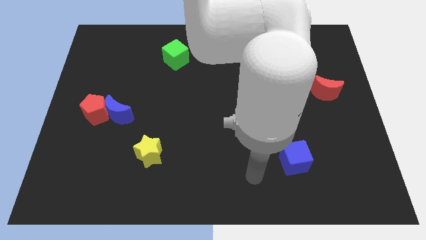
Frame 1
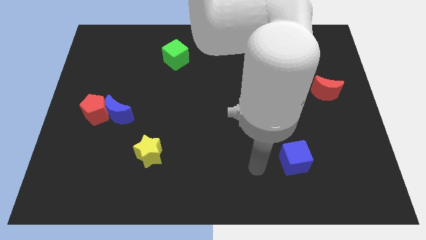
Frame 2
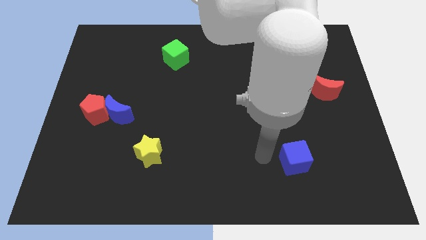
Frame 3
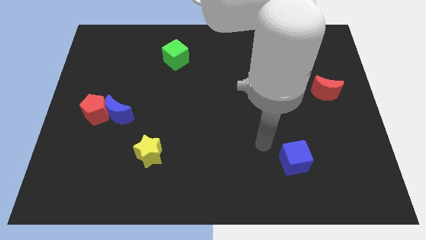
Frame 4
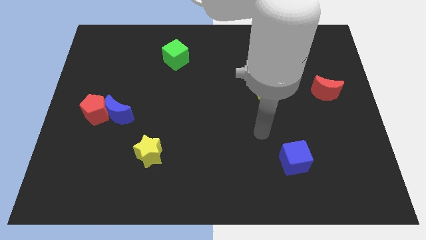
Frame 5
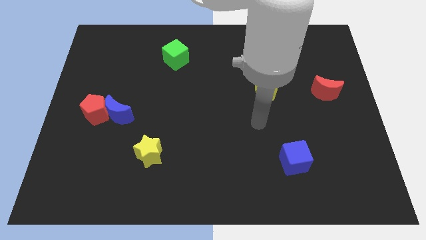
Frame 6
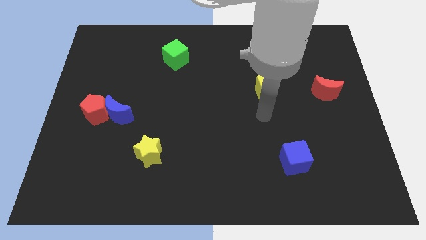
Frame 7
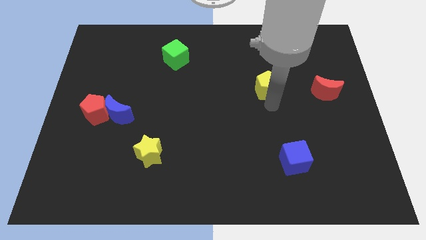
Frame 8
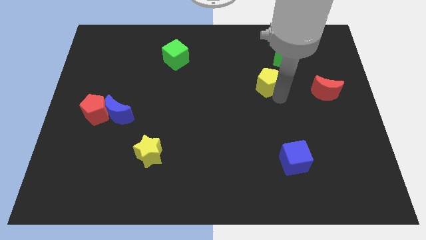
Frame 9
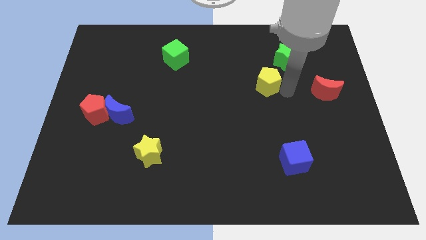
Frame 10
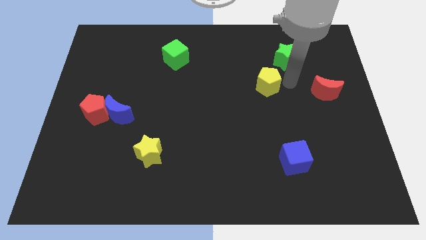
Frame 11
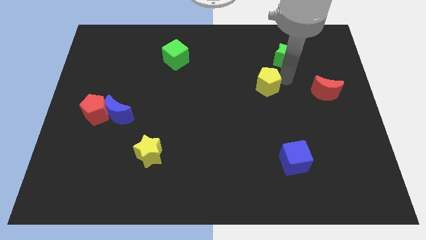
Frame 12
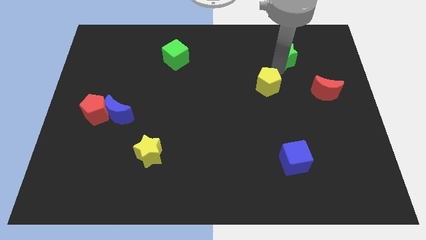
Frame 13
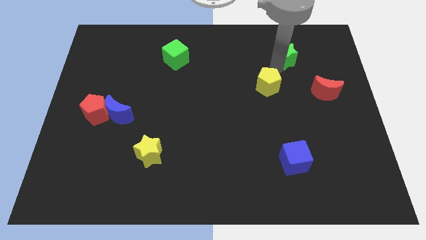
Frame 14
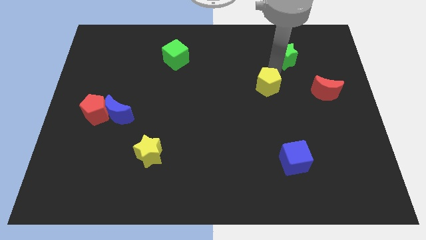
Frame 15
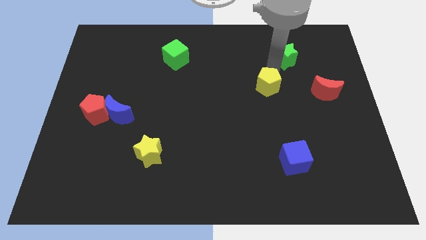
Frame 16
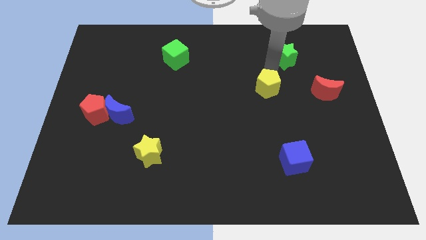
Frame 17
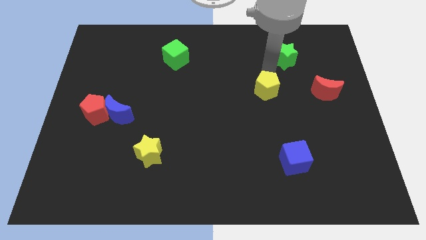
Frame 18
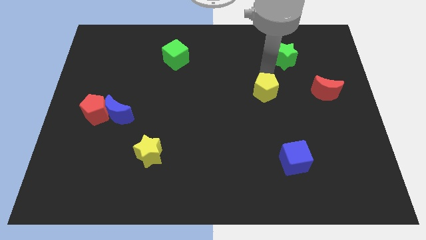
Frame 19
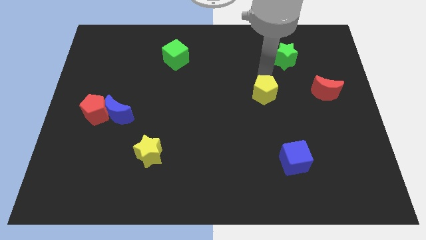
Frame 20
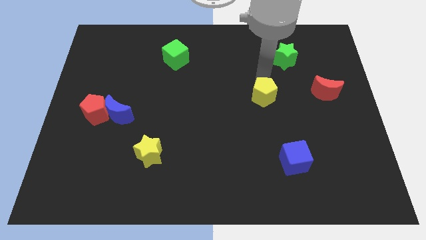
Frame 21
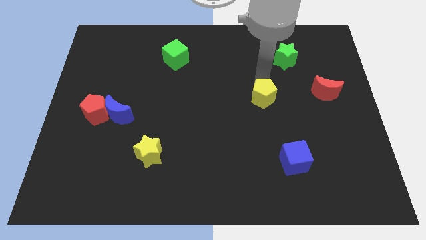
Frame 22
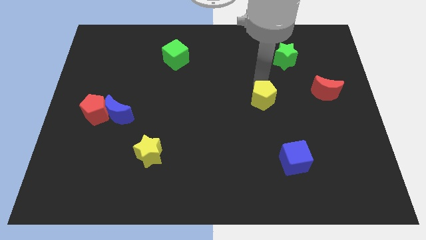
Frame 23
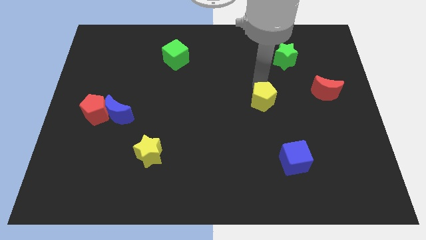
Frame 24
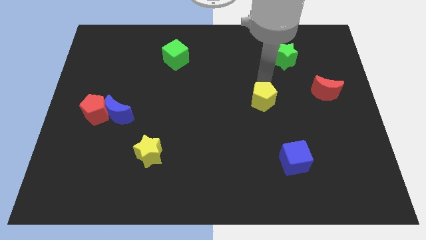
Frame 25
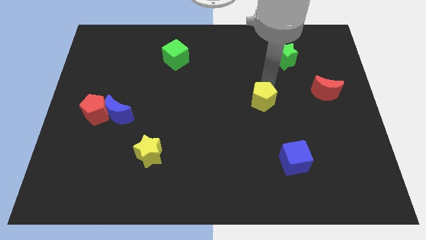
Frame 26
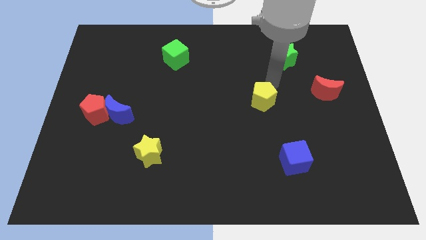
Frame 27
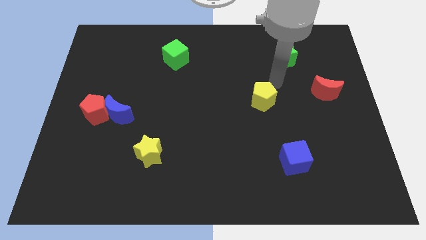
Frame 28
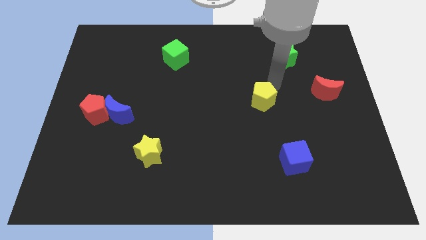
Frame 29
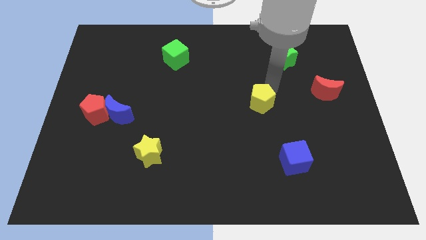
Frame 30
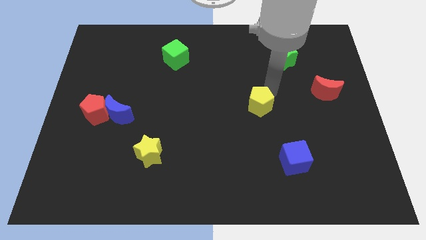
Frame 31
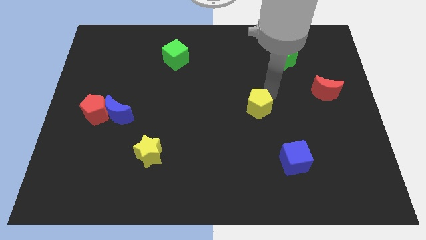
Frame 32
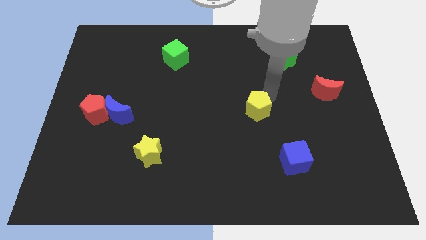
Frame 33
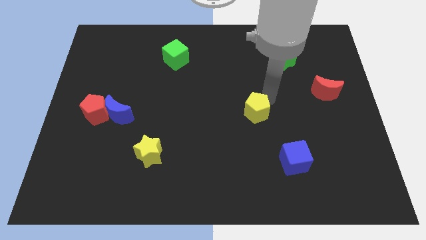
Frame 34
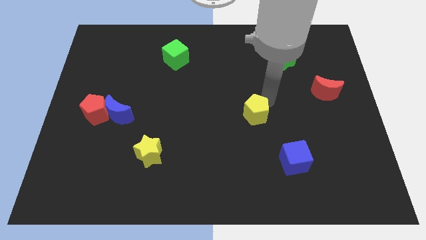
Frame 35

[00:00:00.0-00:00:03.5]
slightly slide the yellow pentagon downwards and then left

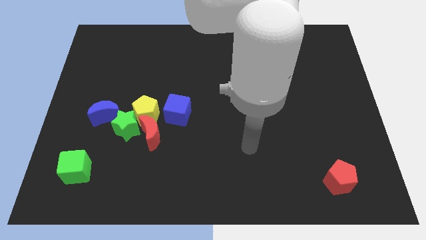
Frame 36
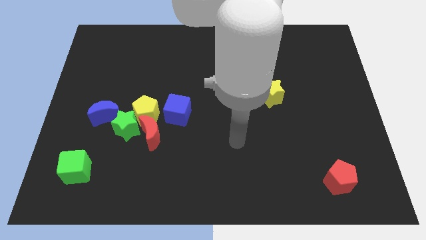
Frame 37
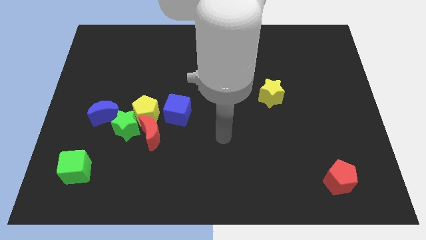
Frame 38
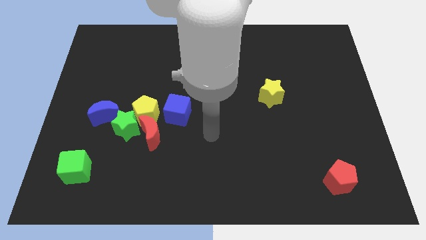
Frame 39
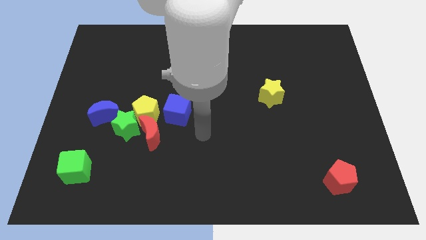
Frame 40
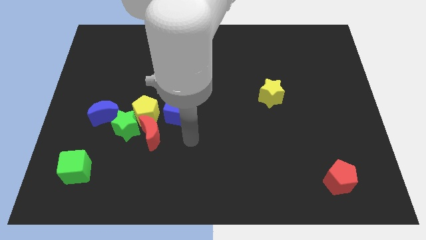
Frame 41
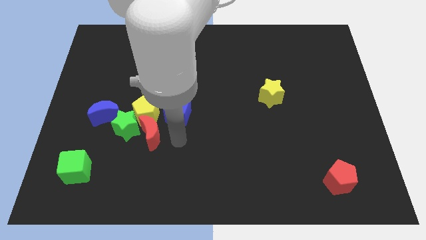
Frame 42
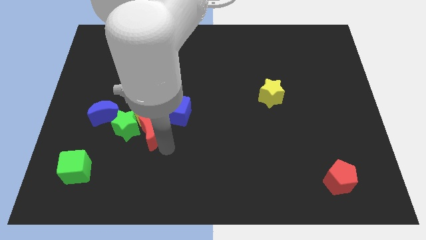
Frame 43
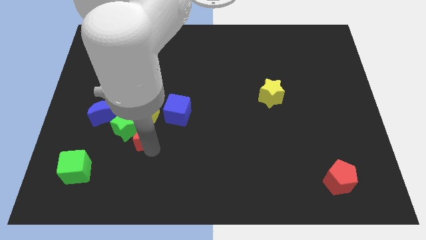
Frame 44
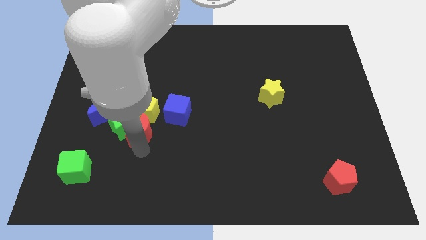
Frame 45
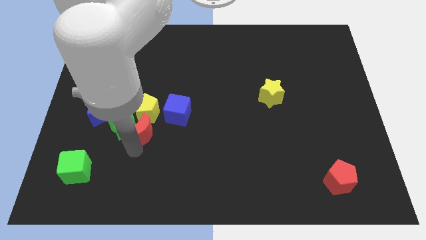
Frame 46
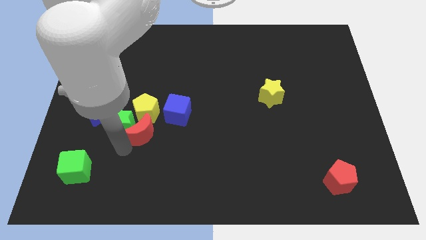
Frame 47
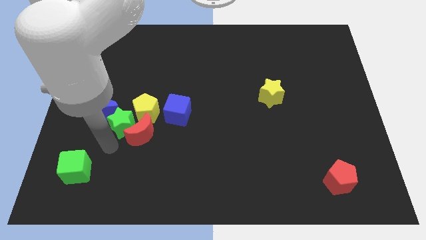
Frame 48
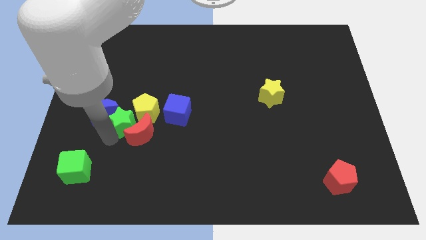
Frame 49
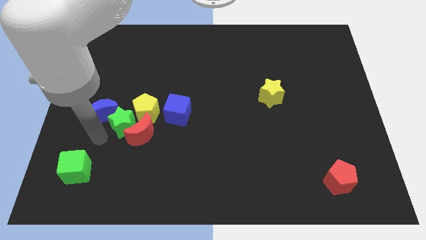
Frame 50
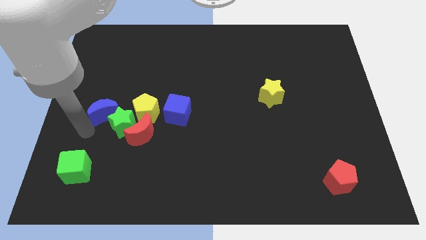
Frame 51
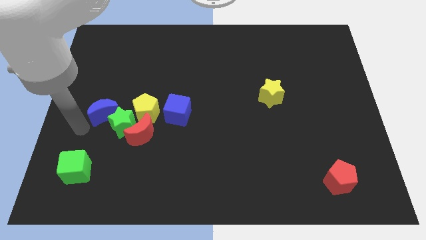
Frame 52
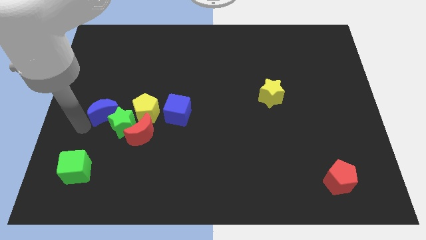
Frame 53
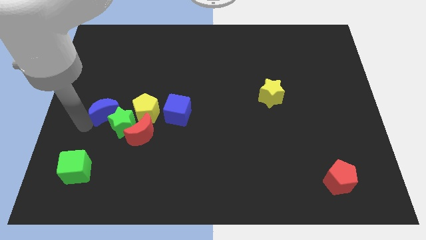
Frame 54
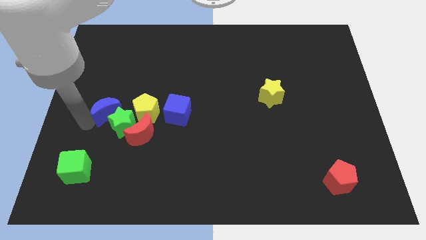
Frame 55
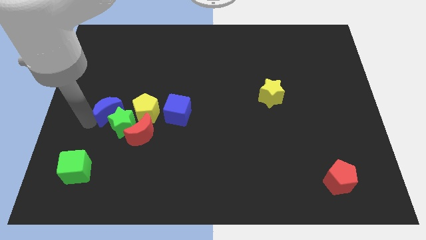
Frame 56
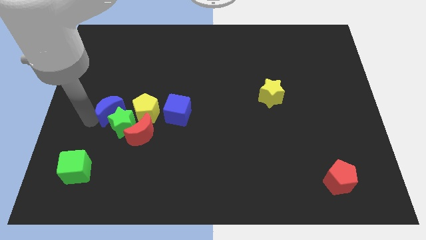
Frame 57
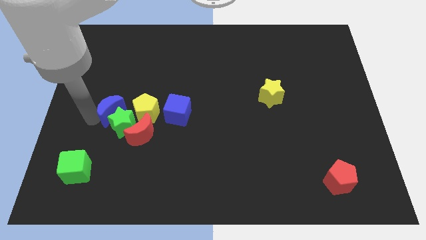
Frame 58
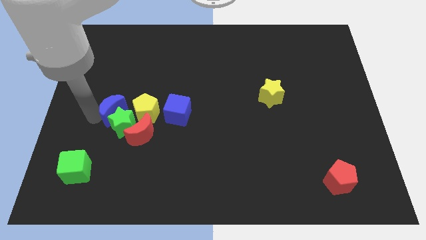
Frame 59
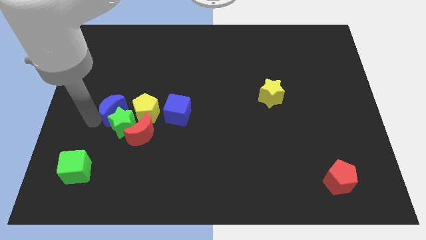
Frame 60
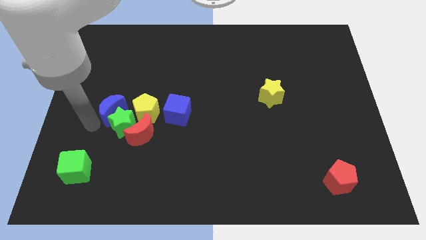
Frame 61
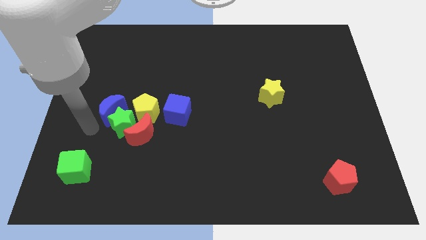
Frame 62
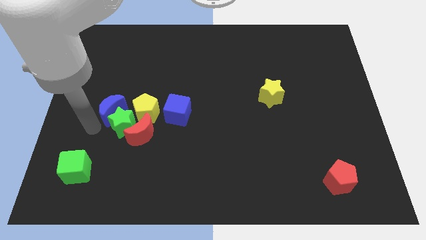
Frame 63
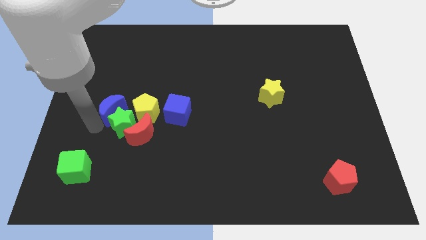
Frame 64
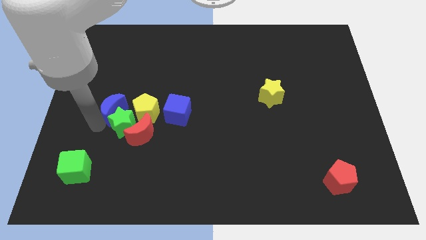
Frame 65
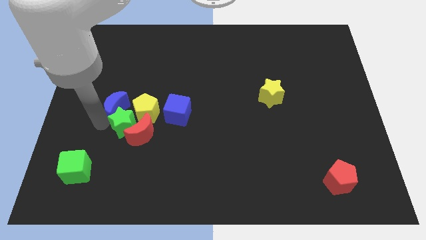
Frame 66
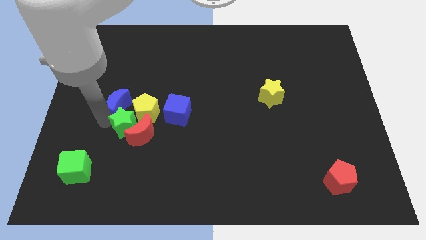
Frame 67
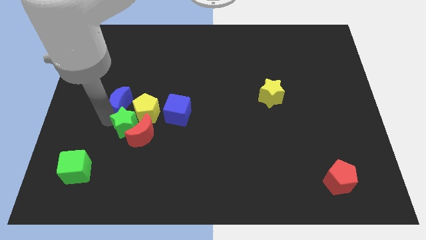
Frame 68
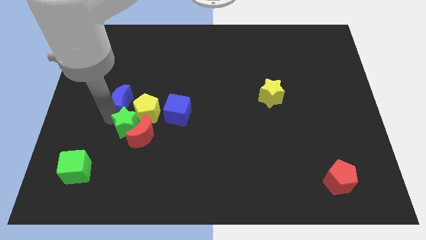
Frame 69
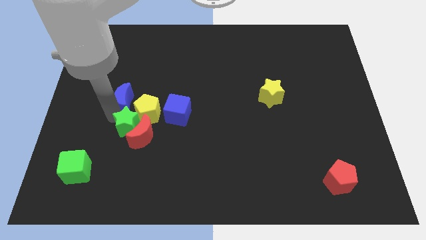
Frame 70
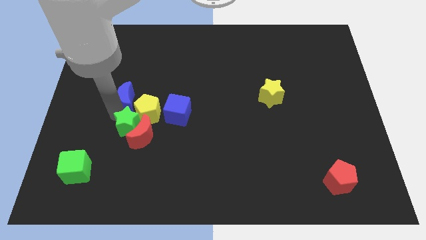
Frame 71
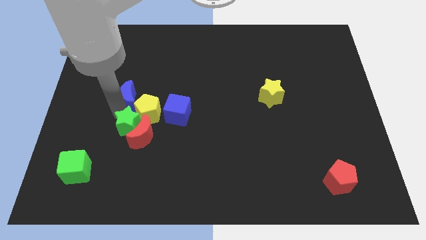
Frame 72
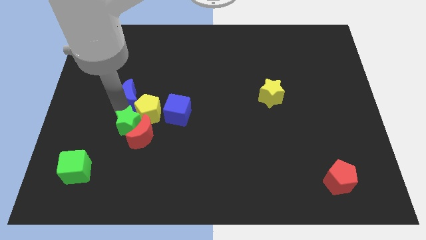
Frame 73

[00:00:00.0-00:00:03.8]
move the blue moon upwards and right a little

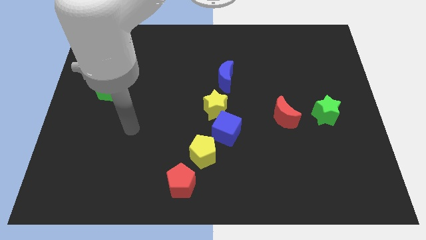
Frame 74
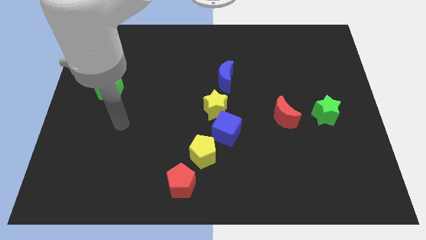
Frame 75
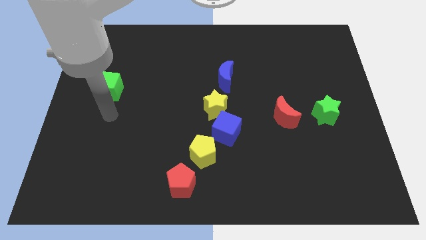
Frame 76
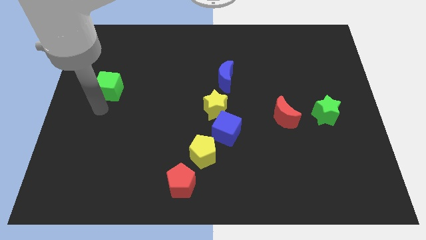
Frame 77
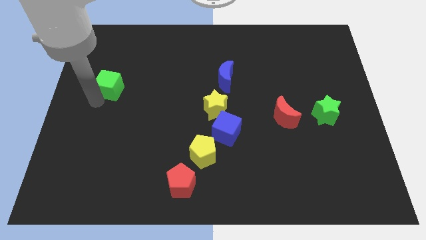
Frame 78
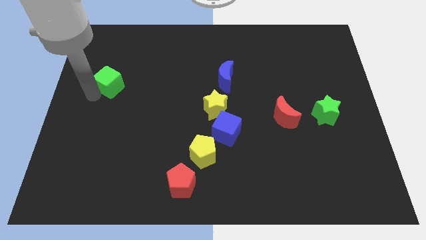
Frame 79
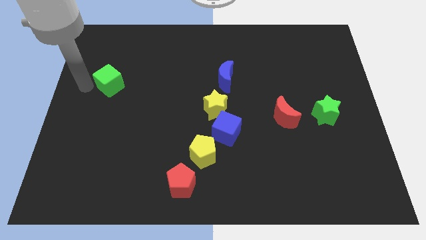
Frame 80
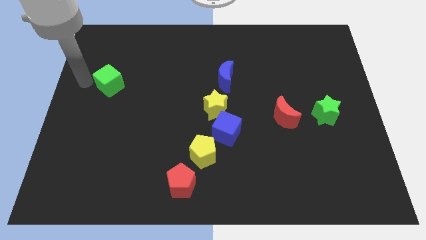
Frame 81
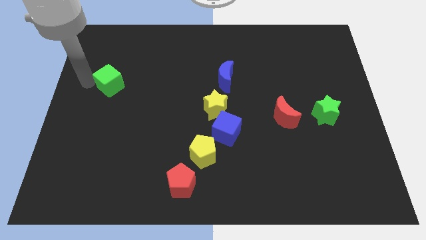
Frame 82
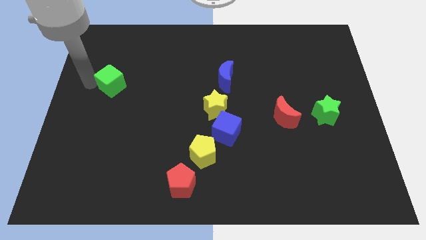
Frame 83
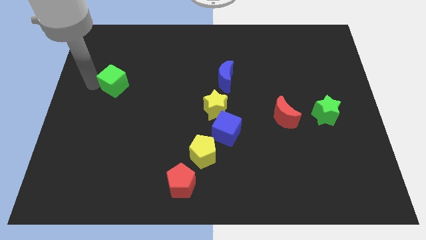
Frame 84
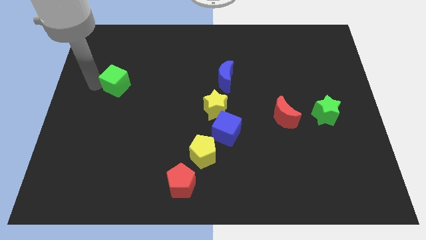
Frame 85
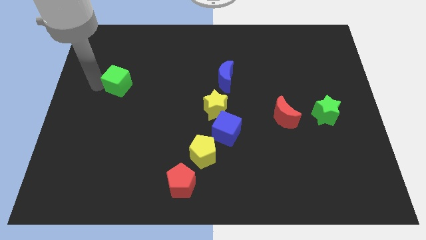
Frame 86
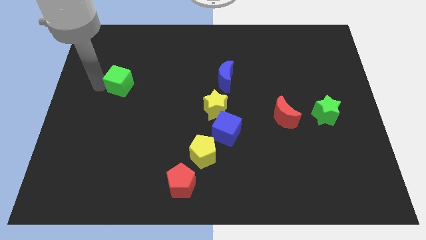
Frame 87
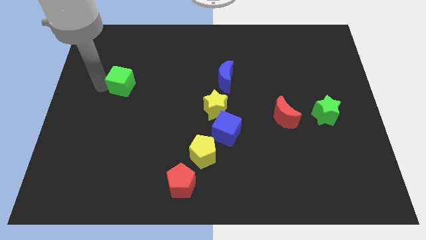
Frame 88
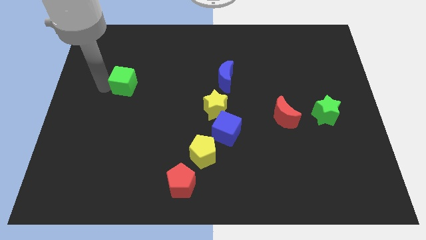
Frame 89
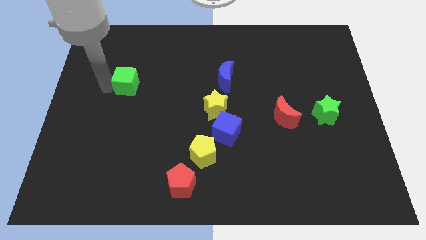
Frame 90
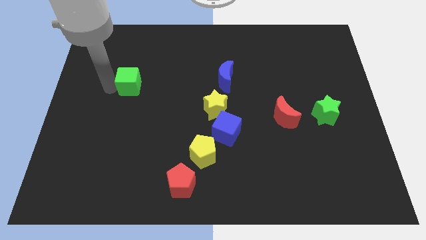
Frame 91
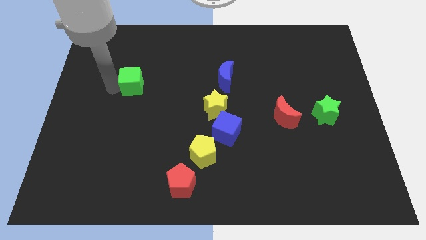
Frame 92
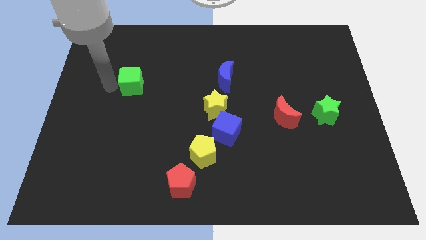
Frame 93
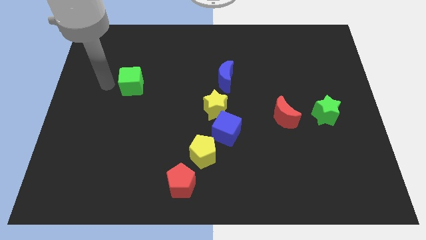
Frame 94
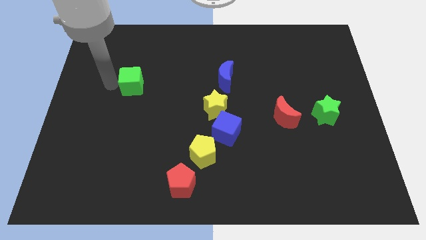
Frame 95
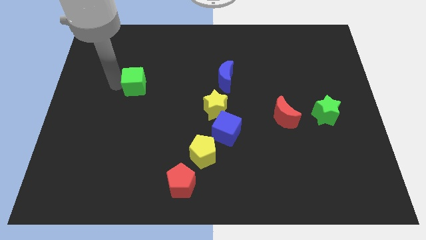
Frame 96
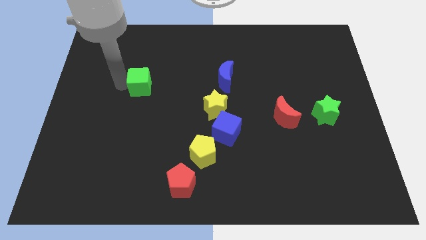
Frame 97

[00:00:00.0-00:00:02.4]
slightly move the green cube to the right
